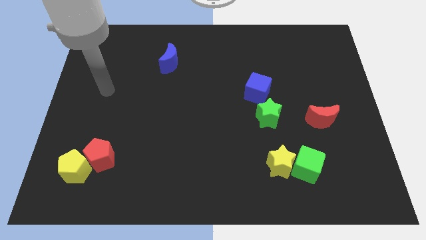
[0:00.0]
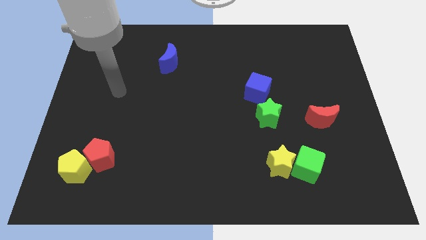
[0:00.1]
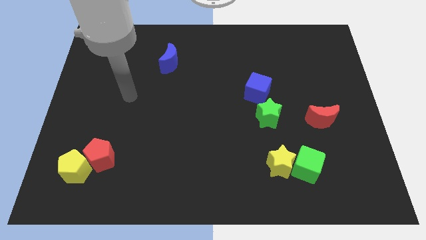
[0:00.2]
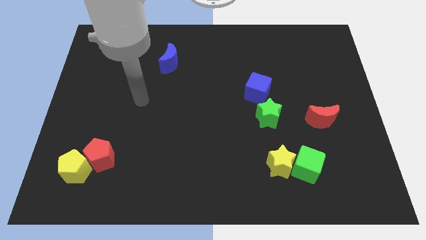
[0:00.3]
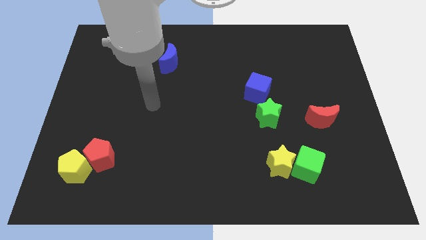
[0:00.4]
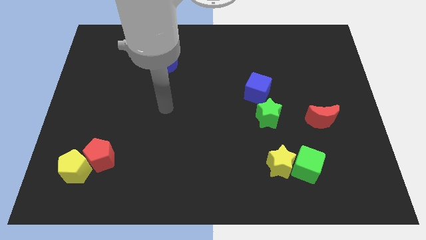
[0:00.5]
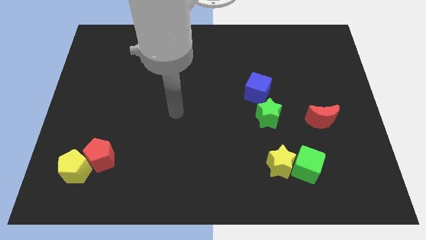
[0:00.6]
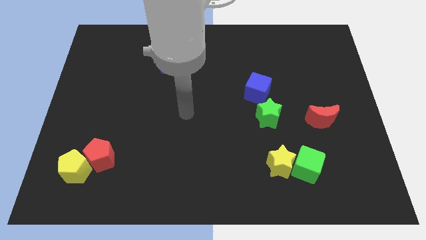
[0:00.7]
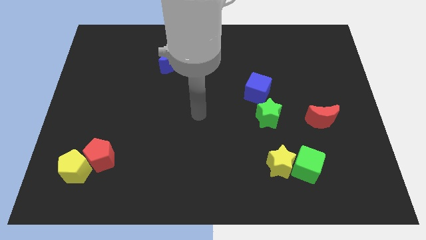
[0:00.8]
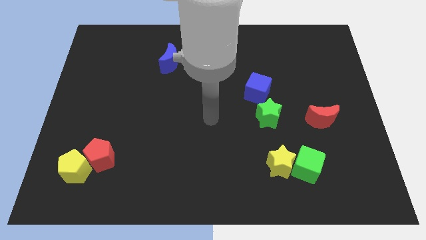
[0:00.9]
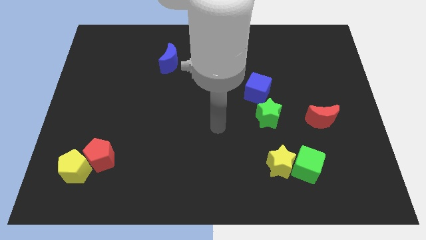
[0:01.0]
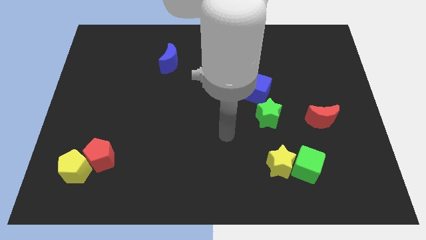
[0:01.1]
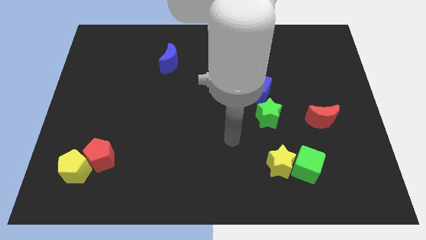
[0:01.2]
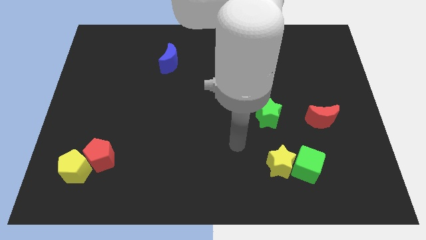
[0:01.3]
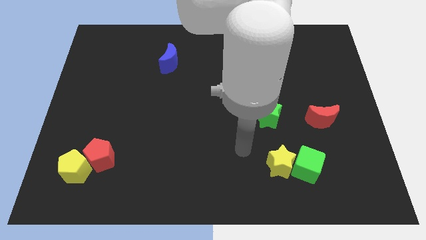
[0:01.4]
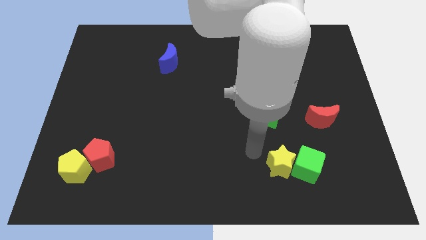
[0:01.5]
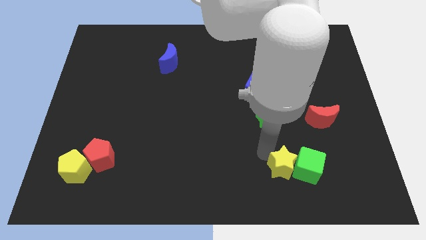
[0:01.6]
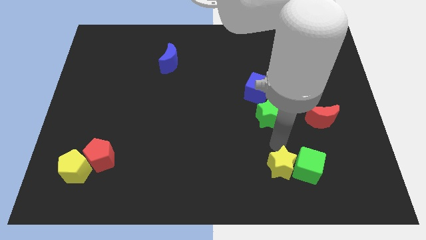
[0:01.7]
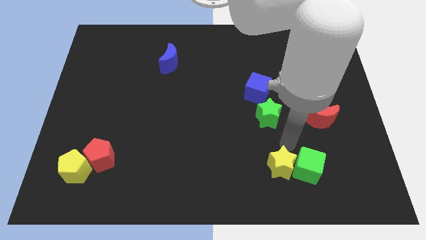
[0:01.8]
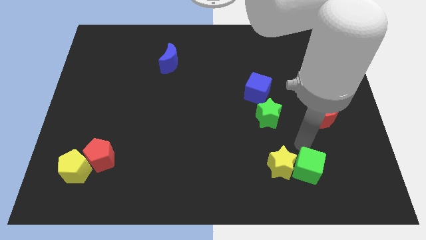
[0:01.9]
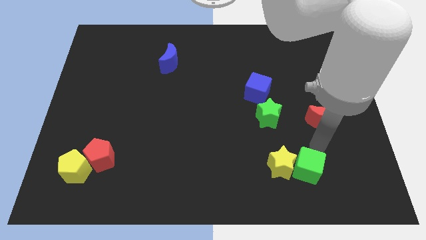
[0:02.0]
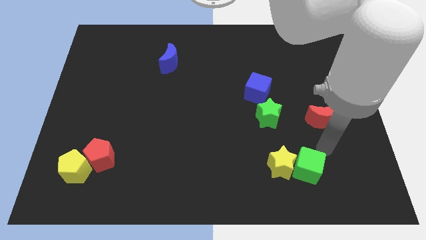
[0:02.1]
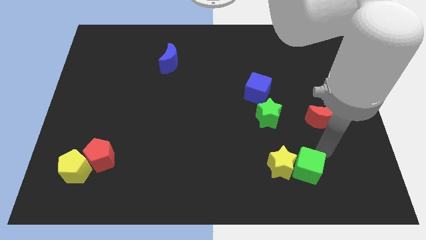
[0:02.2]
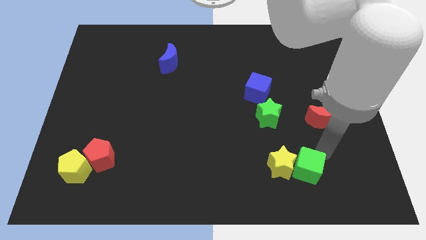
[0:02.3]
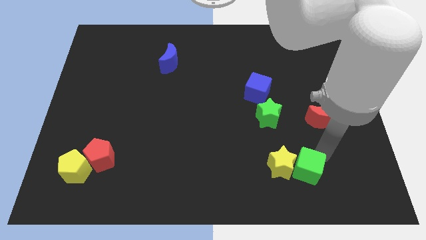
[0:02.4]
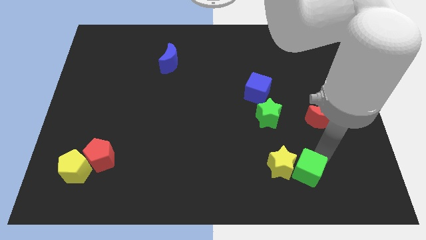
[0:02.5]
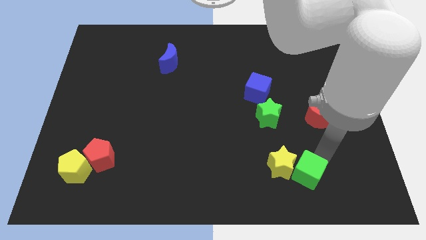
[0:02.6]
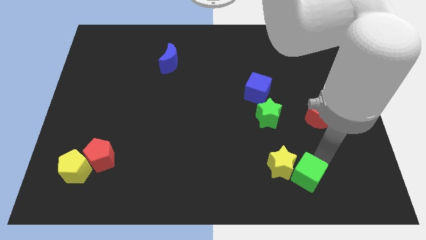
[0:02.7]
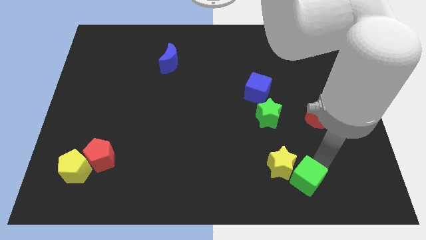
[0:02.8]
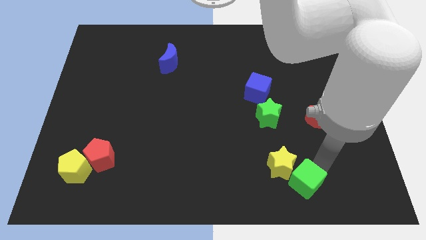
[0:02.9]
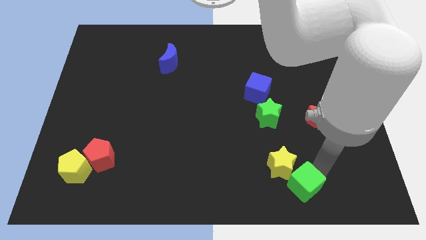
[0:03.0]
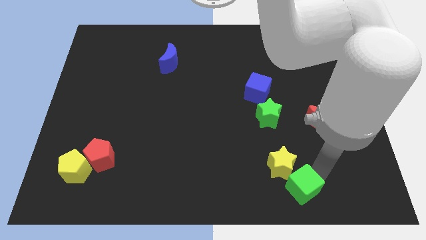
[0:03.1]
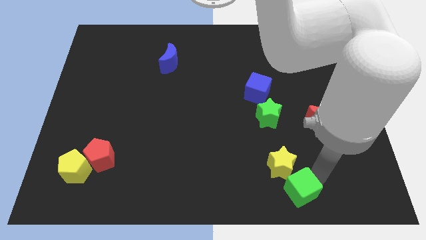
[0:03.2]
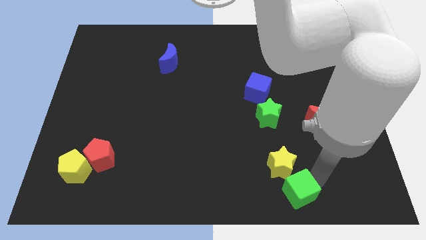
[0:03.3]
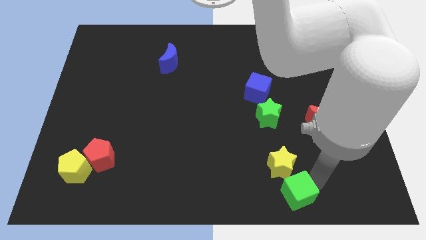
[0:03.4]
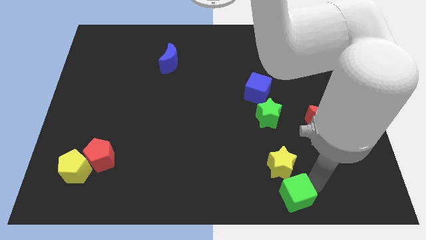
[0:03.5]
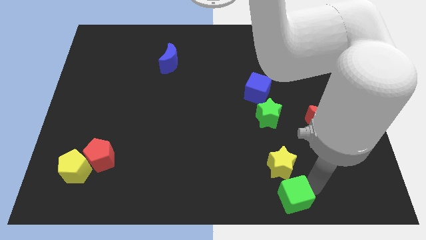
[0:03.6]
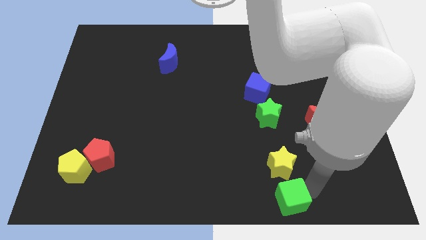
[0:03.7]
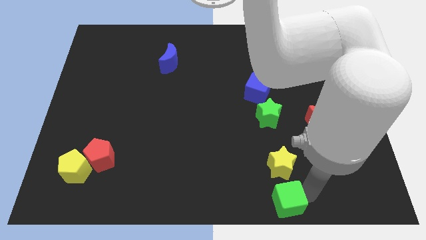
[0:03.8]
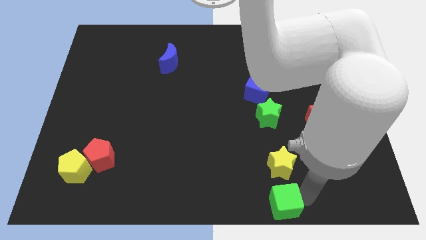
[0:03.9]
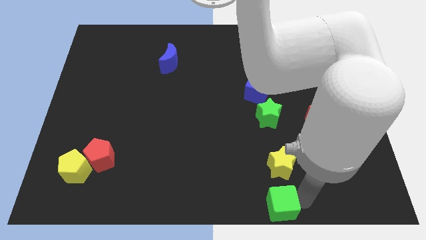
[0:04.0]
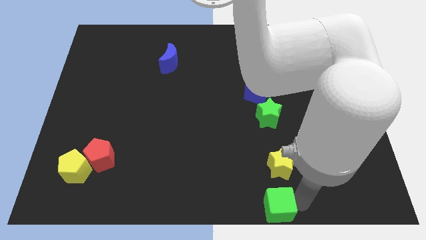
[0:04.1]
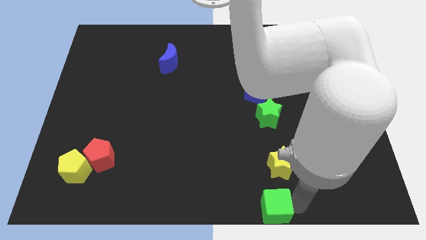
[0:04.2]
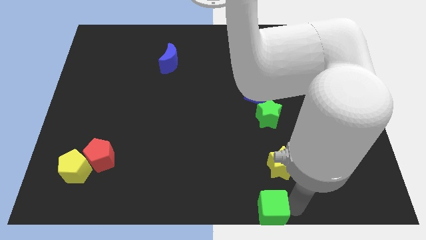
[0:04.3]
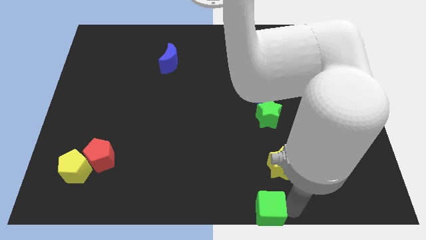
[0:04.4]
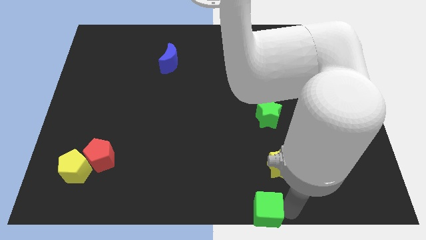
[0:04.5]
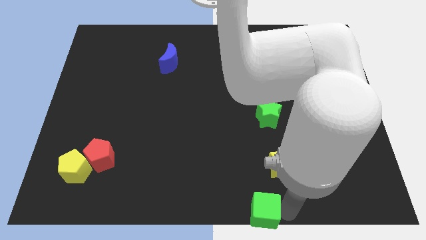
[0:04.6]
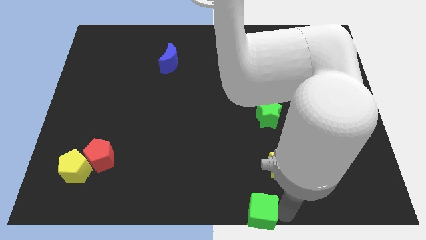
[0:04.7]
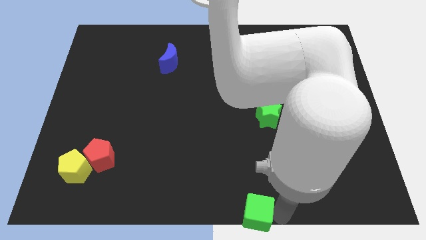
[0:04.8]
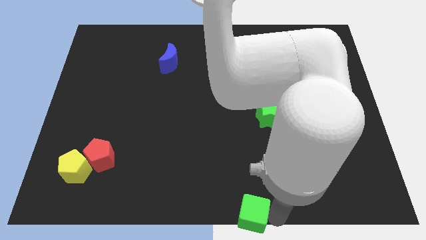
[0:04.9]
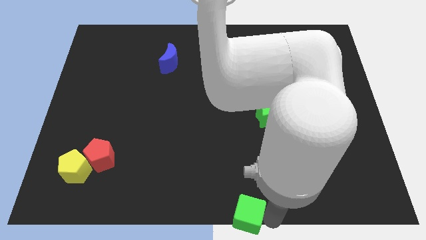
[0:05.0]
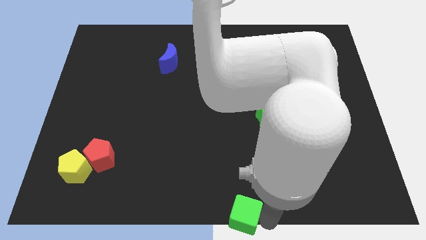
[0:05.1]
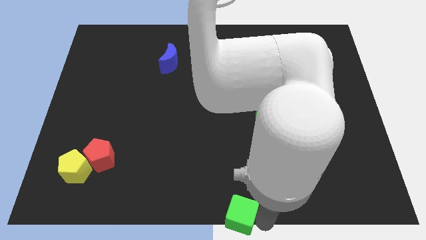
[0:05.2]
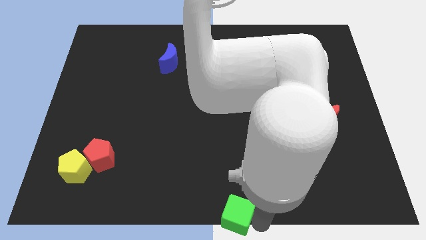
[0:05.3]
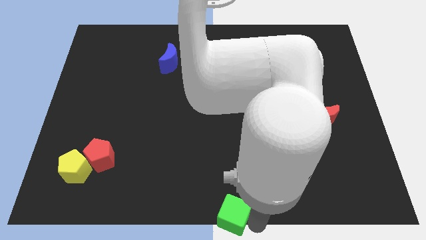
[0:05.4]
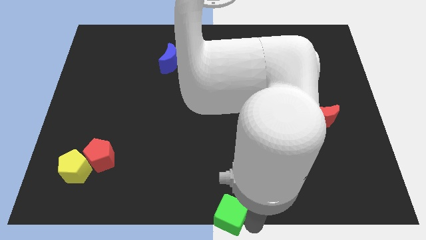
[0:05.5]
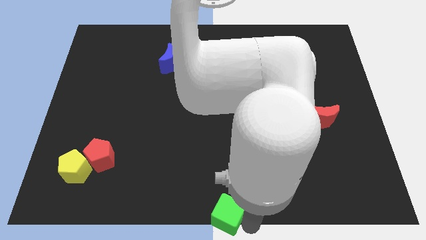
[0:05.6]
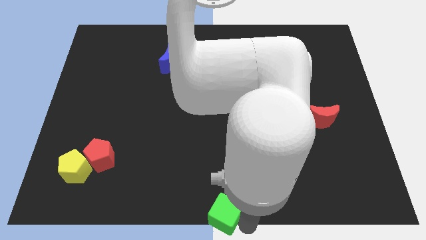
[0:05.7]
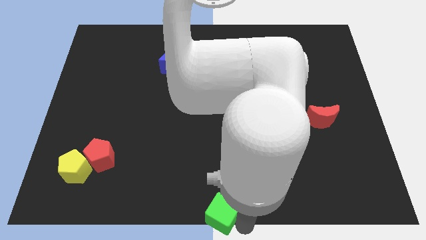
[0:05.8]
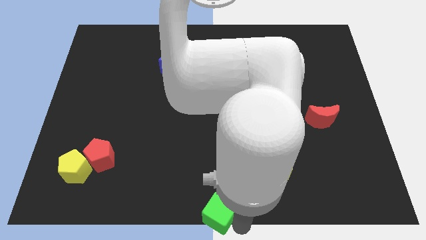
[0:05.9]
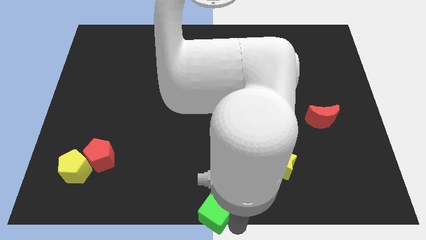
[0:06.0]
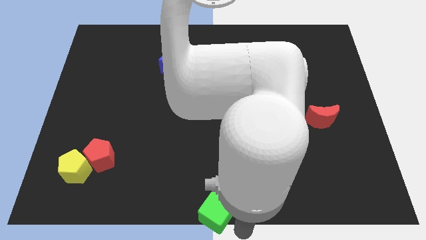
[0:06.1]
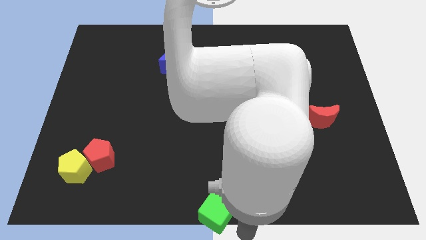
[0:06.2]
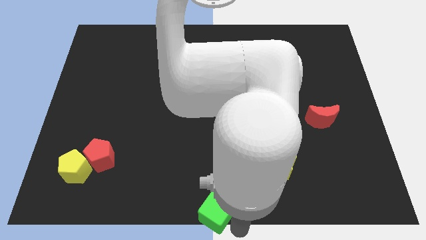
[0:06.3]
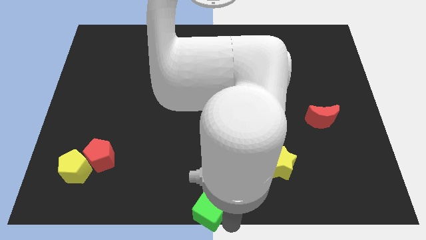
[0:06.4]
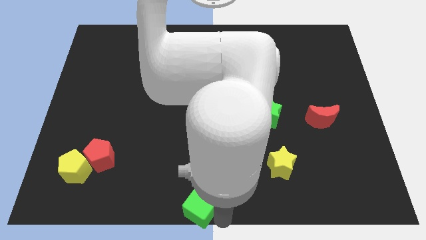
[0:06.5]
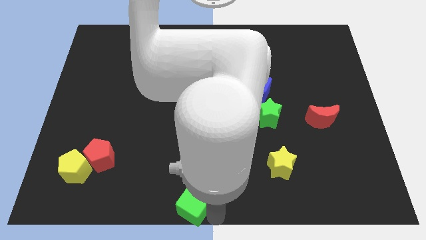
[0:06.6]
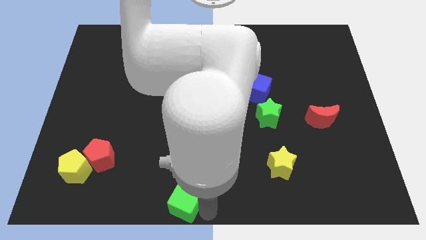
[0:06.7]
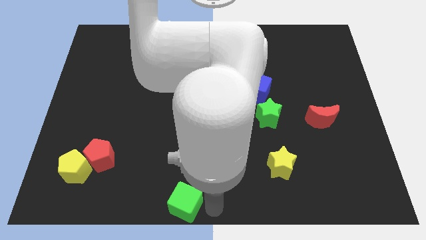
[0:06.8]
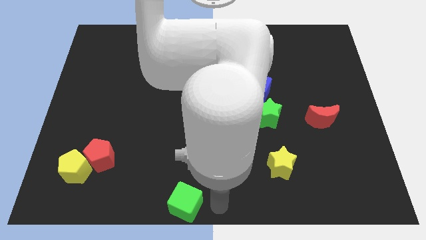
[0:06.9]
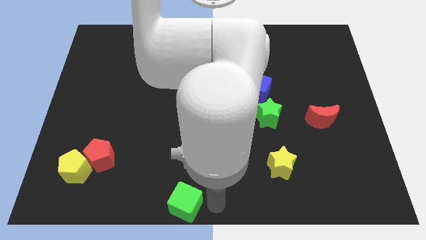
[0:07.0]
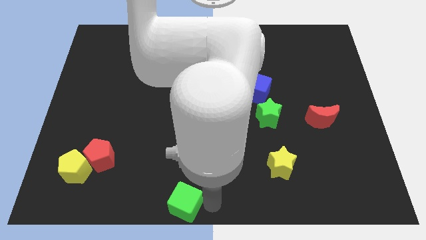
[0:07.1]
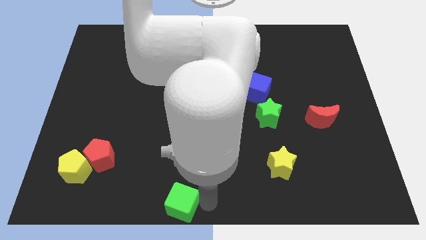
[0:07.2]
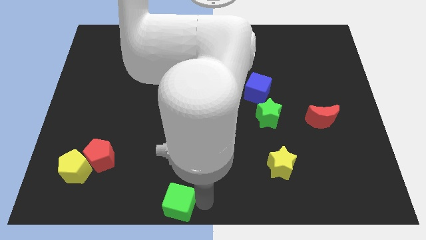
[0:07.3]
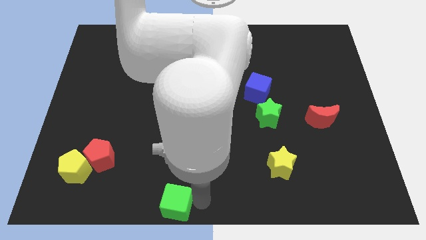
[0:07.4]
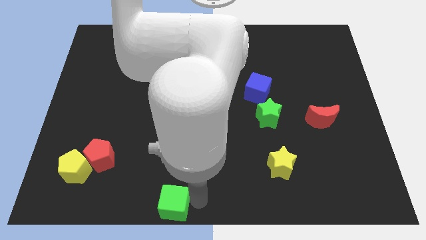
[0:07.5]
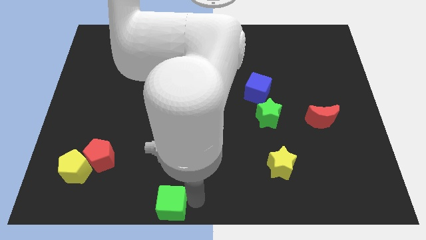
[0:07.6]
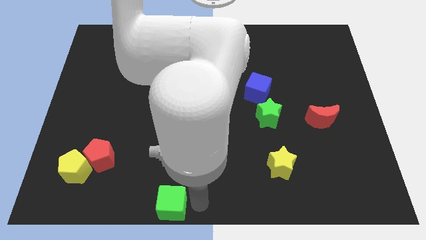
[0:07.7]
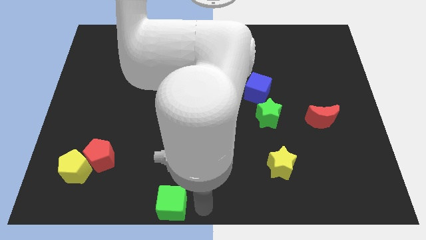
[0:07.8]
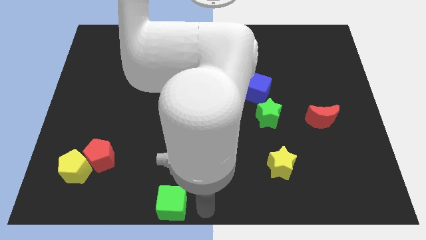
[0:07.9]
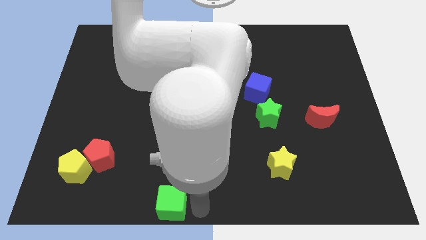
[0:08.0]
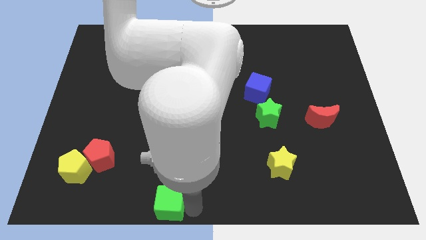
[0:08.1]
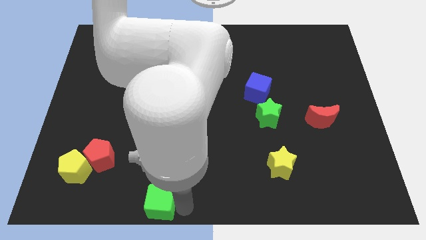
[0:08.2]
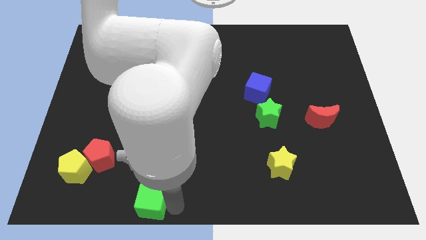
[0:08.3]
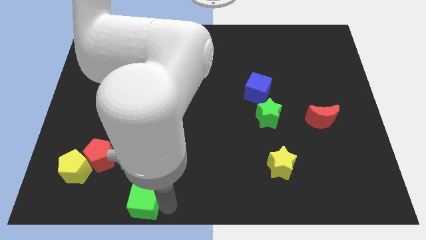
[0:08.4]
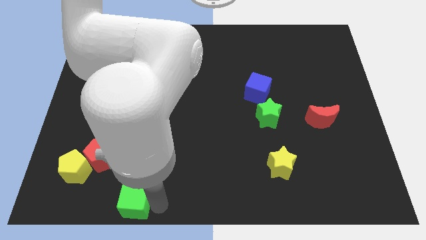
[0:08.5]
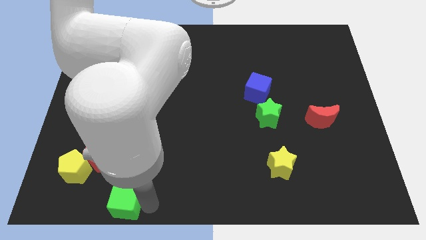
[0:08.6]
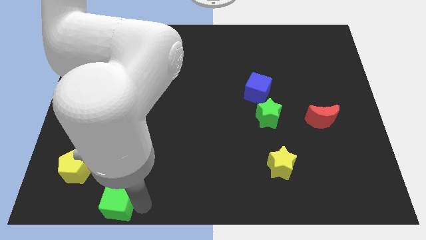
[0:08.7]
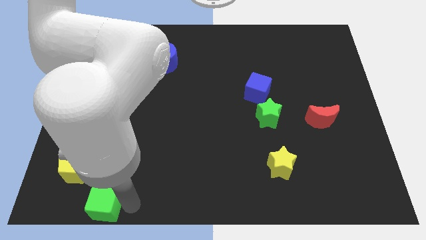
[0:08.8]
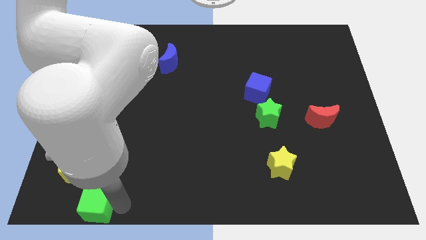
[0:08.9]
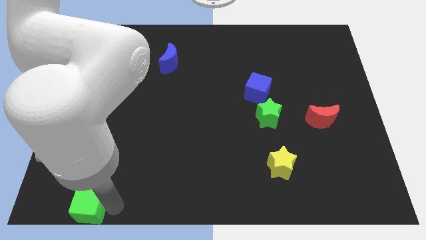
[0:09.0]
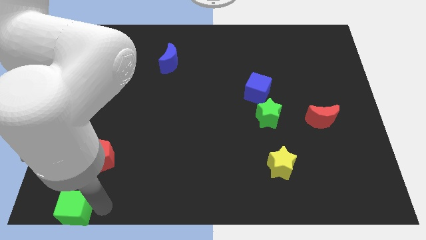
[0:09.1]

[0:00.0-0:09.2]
push the green cube to the bottom left
